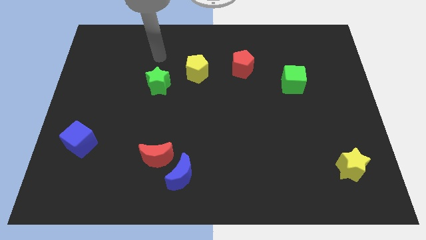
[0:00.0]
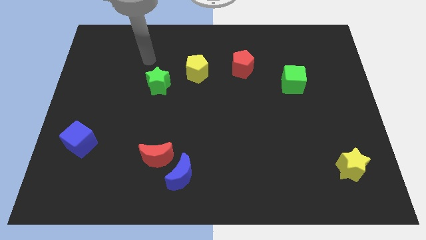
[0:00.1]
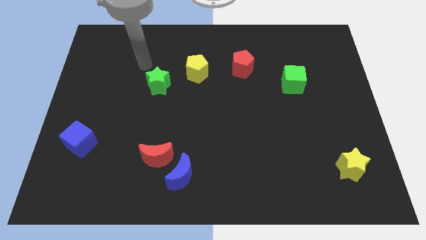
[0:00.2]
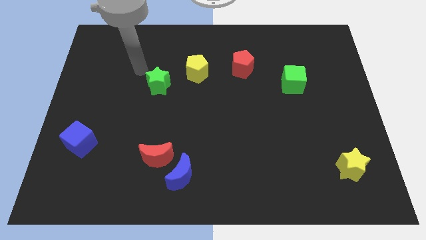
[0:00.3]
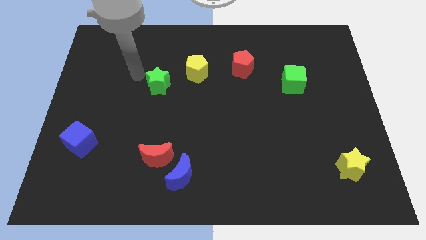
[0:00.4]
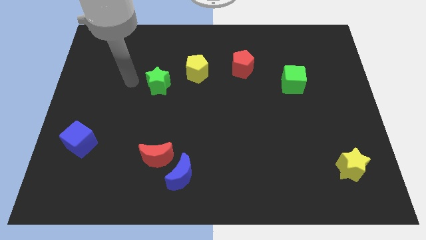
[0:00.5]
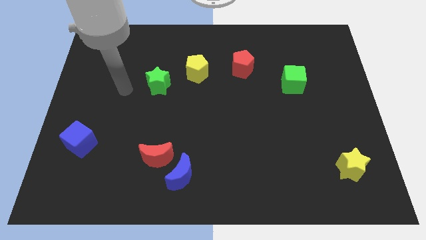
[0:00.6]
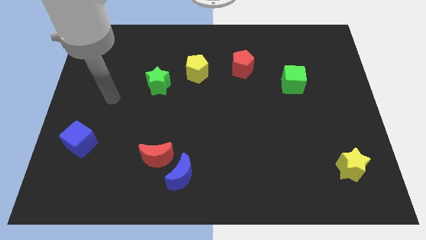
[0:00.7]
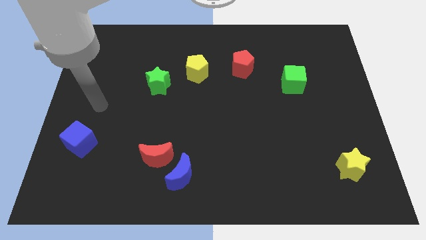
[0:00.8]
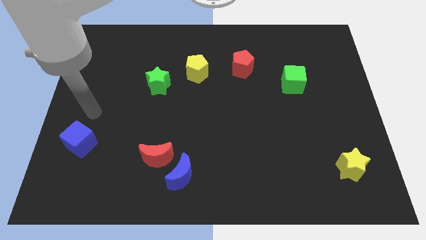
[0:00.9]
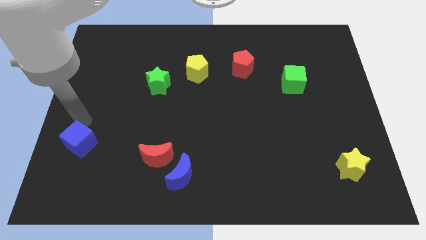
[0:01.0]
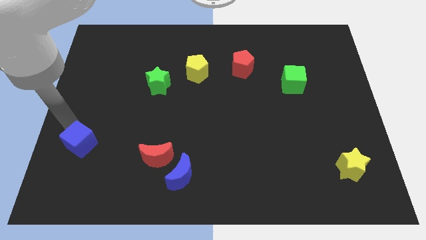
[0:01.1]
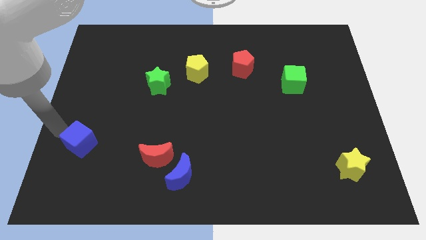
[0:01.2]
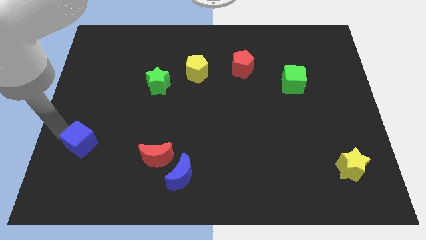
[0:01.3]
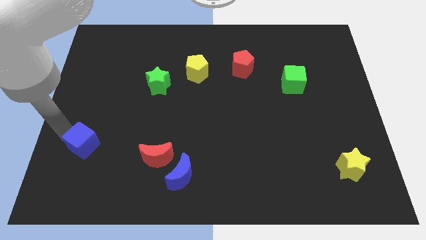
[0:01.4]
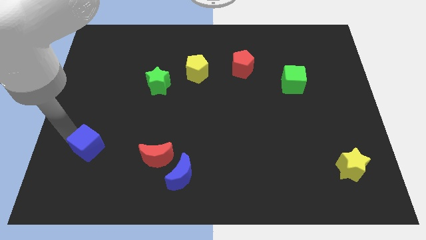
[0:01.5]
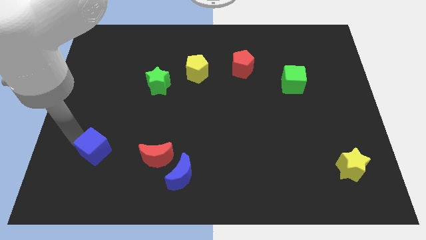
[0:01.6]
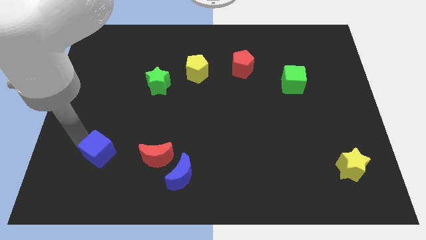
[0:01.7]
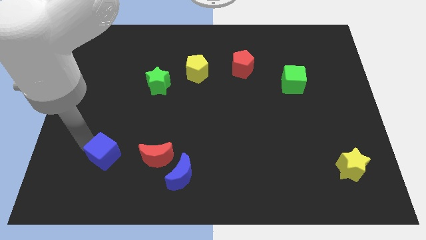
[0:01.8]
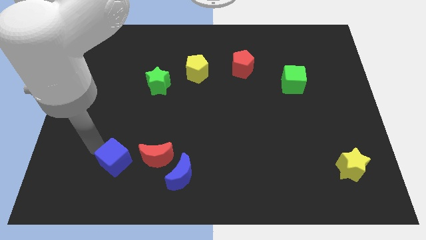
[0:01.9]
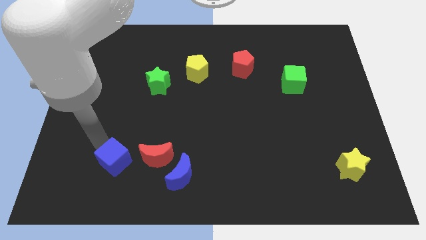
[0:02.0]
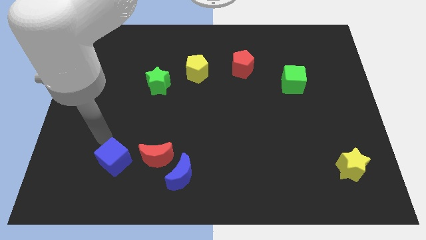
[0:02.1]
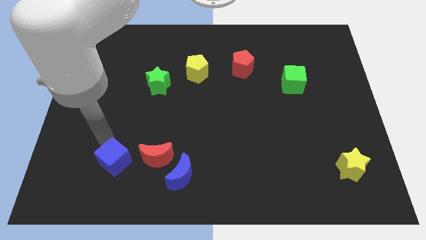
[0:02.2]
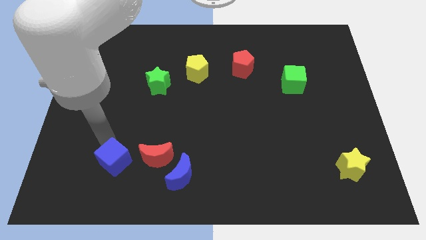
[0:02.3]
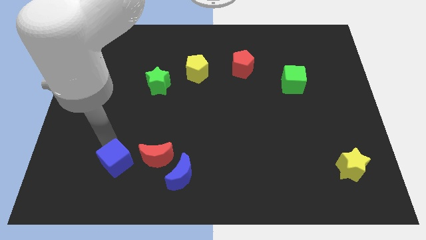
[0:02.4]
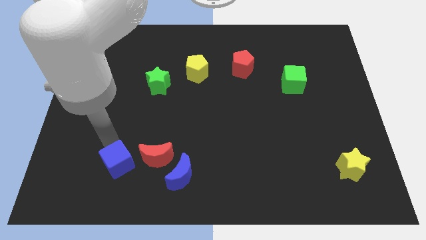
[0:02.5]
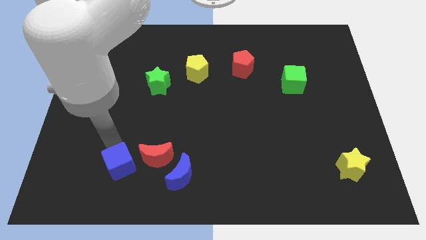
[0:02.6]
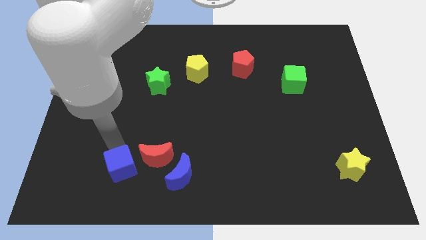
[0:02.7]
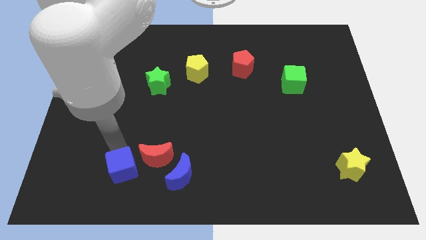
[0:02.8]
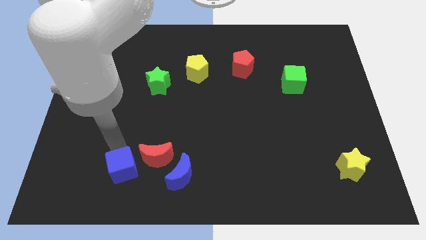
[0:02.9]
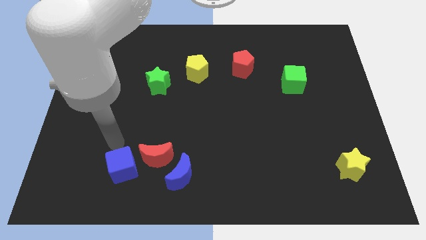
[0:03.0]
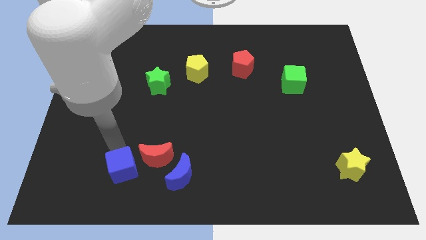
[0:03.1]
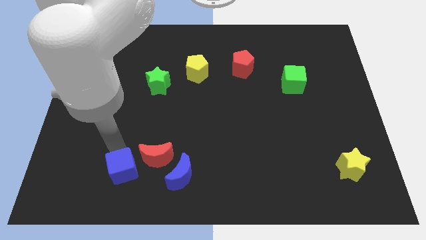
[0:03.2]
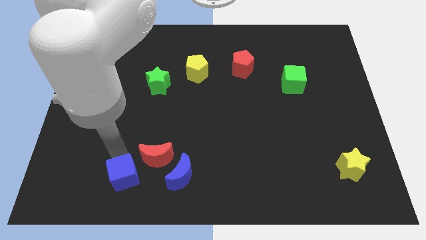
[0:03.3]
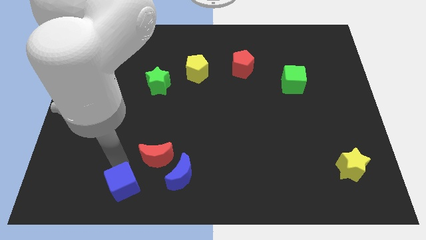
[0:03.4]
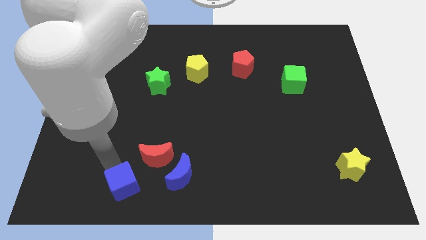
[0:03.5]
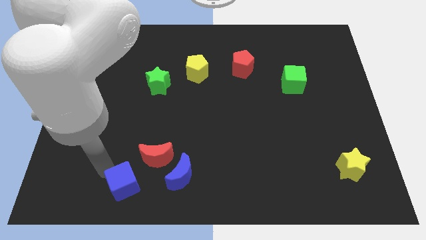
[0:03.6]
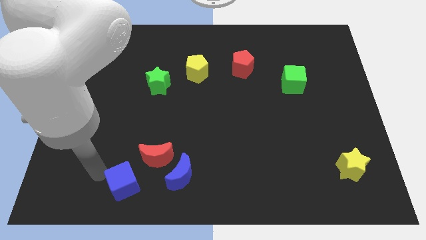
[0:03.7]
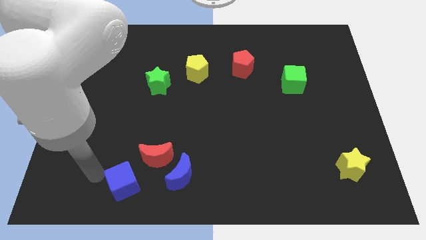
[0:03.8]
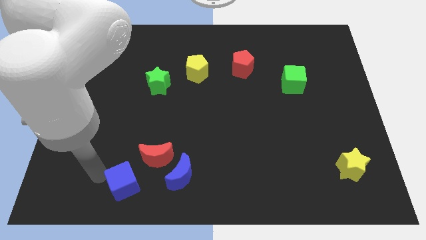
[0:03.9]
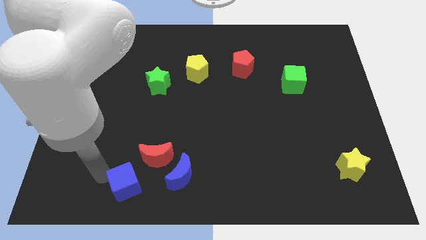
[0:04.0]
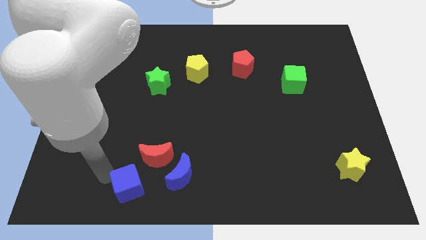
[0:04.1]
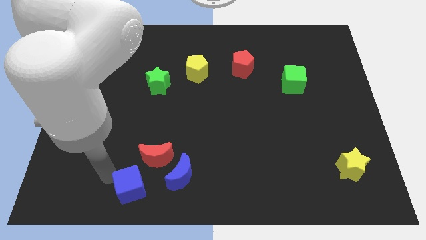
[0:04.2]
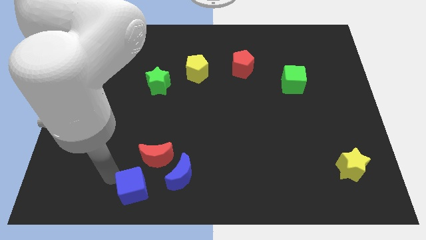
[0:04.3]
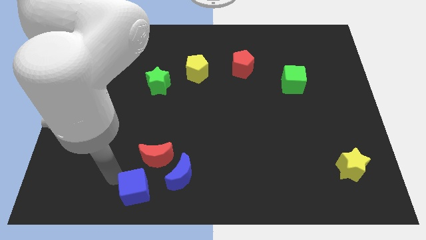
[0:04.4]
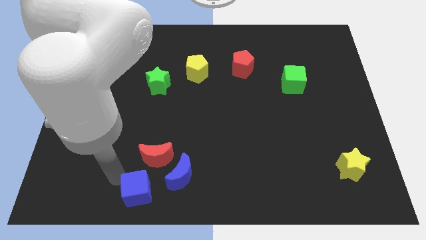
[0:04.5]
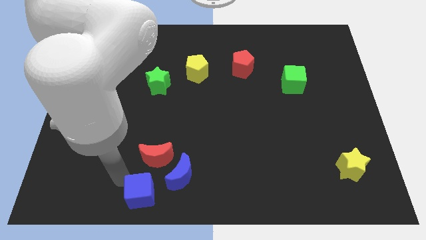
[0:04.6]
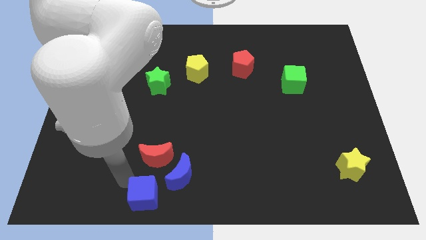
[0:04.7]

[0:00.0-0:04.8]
push the blue cube to the bottom side

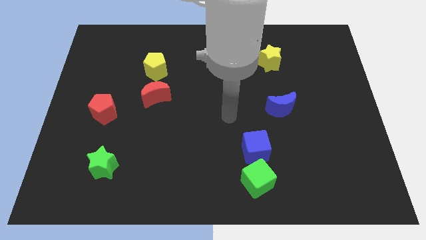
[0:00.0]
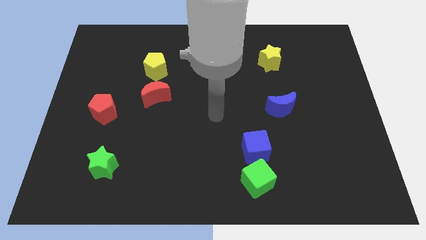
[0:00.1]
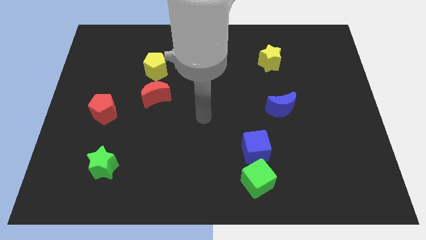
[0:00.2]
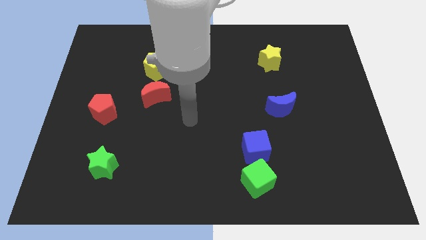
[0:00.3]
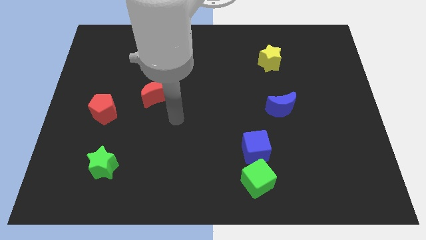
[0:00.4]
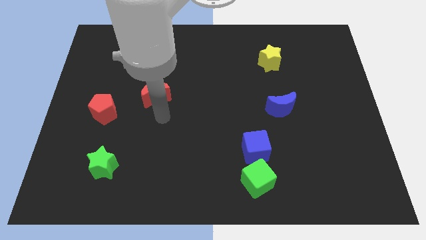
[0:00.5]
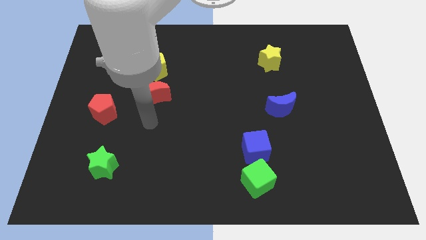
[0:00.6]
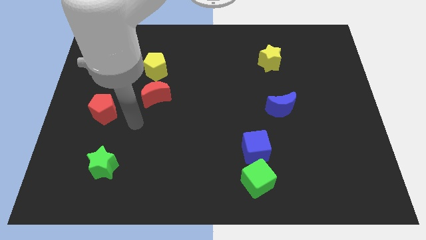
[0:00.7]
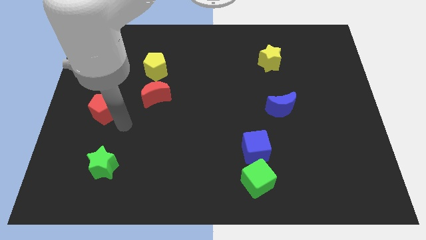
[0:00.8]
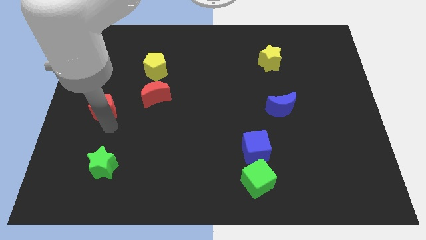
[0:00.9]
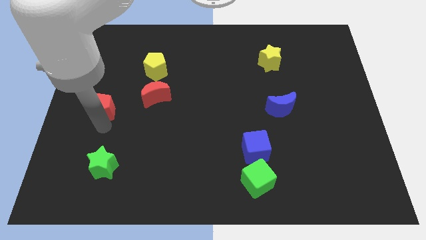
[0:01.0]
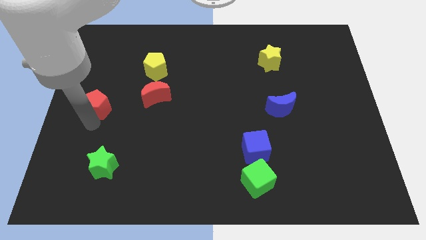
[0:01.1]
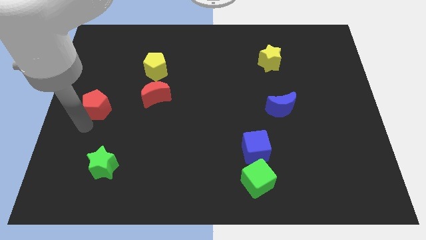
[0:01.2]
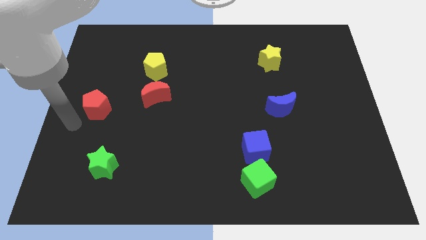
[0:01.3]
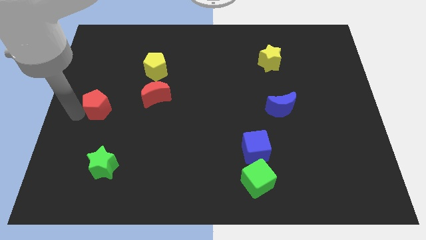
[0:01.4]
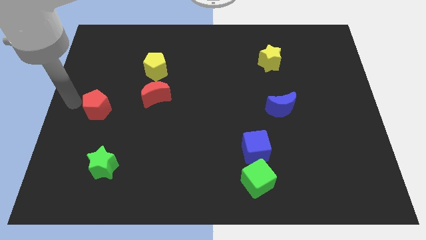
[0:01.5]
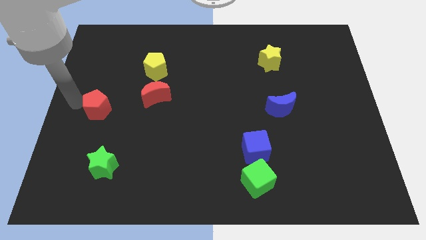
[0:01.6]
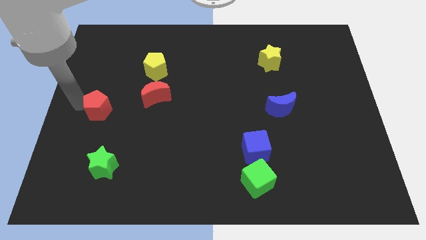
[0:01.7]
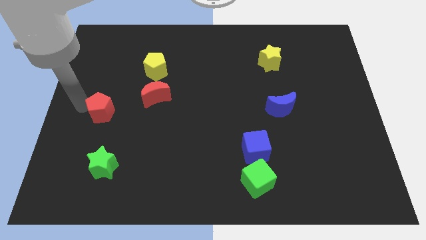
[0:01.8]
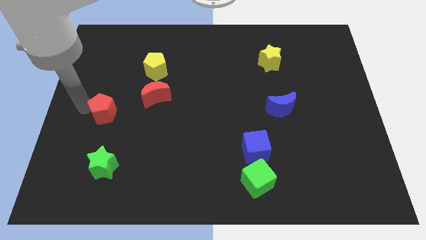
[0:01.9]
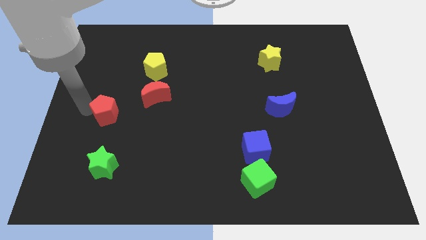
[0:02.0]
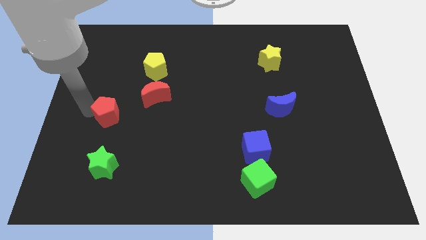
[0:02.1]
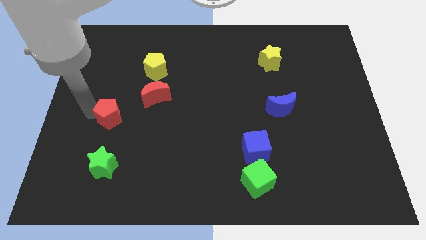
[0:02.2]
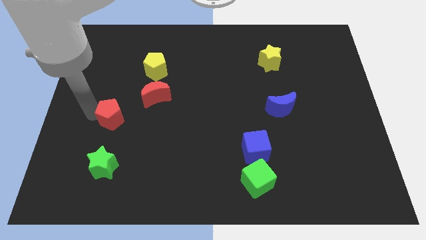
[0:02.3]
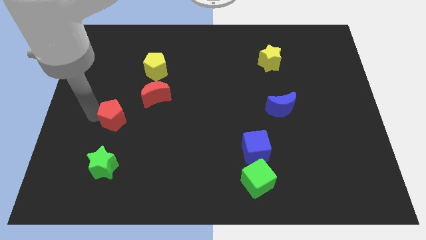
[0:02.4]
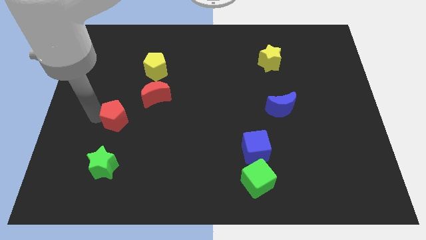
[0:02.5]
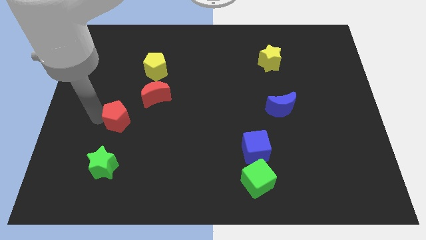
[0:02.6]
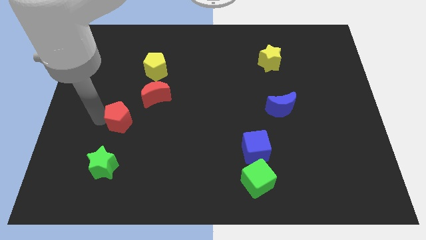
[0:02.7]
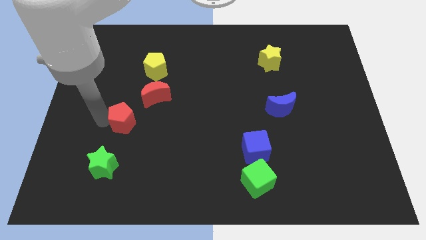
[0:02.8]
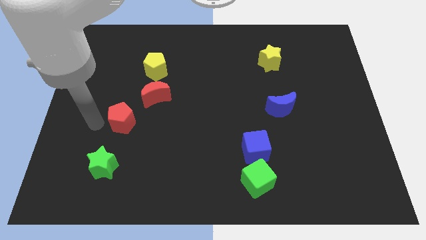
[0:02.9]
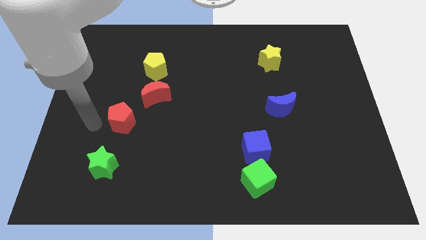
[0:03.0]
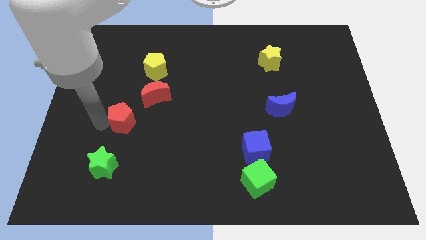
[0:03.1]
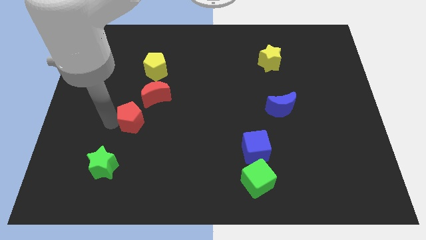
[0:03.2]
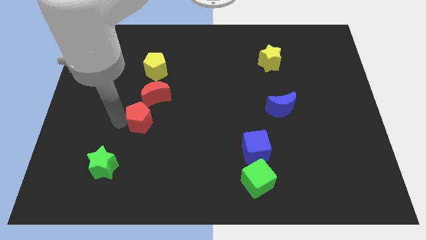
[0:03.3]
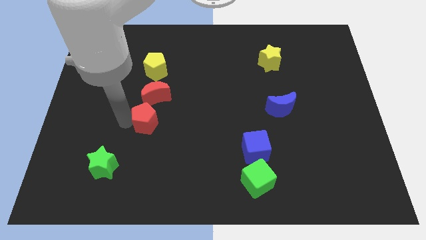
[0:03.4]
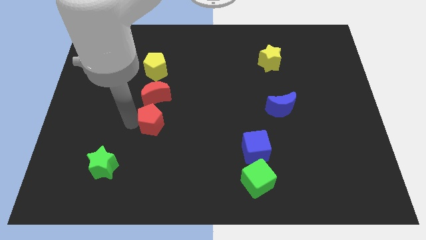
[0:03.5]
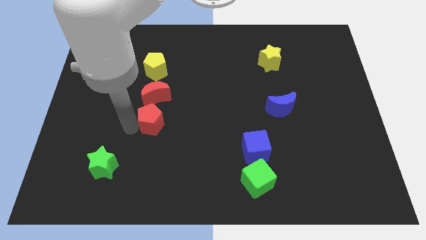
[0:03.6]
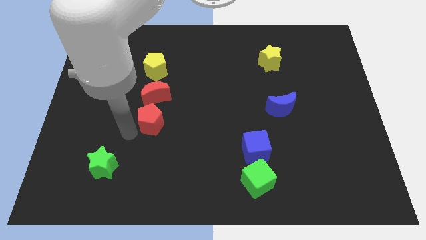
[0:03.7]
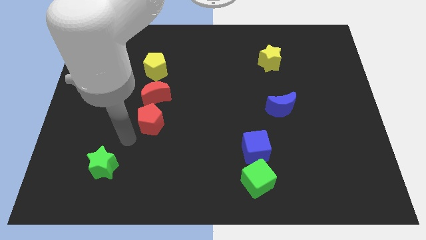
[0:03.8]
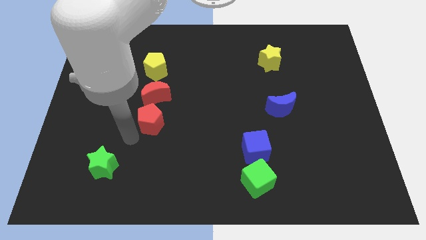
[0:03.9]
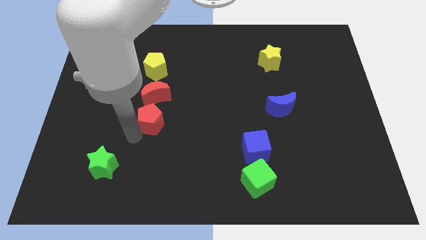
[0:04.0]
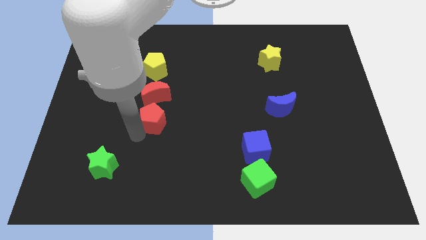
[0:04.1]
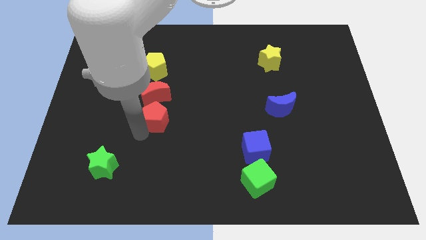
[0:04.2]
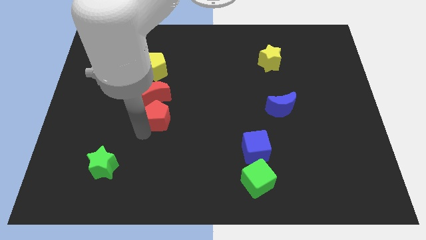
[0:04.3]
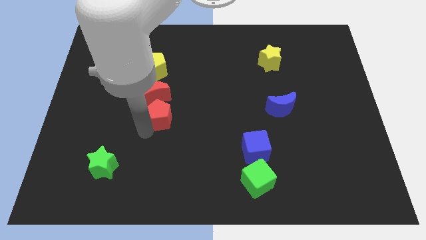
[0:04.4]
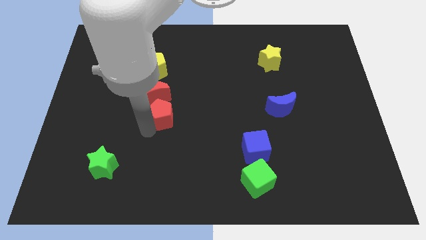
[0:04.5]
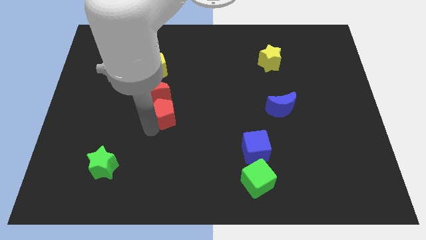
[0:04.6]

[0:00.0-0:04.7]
move the red pentagon to the middle of the board
